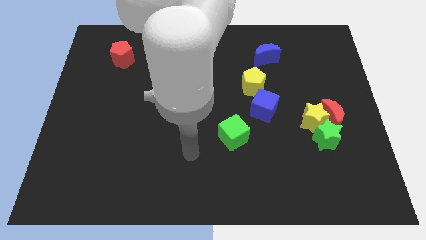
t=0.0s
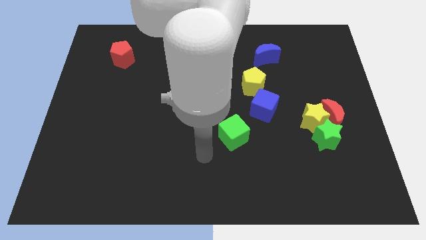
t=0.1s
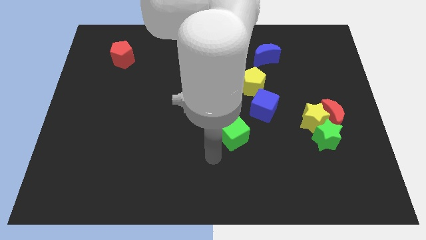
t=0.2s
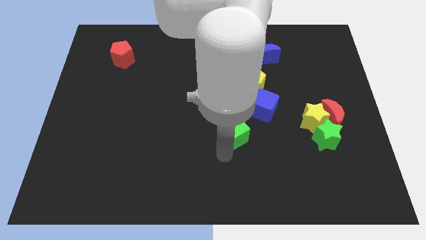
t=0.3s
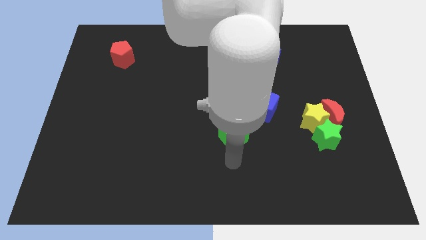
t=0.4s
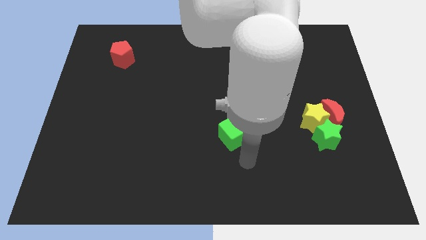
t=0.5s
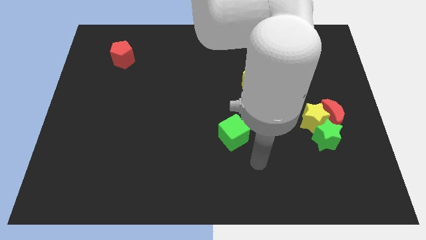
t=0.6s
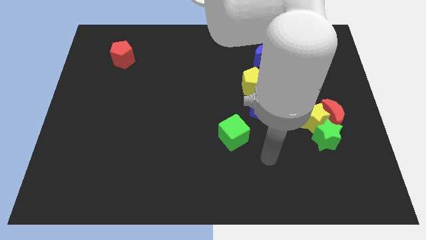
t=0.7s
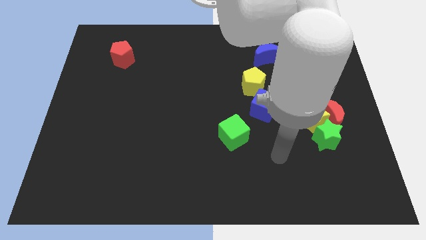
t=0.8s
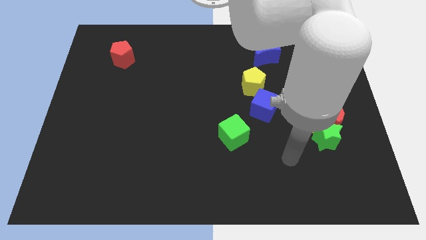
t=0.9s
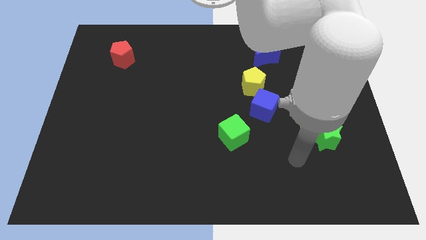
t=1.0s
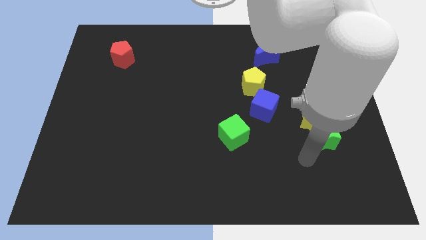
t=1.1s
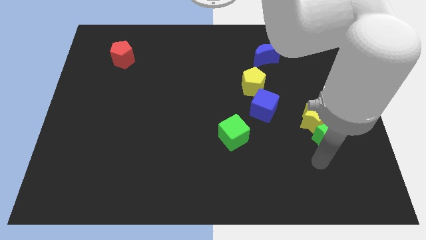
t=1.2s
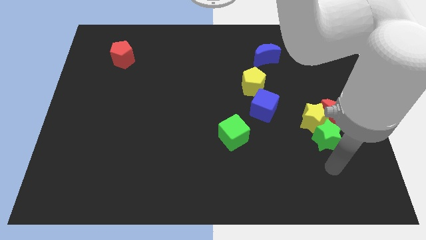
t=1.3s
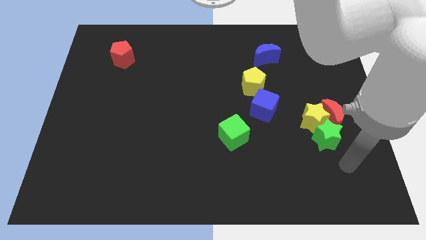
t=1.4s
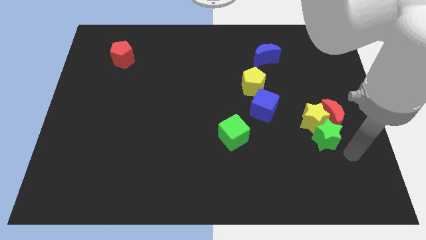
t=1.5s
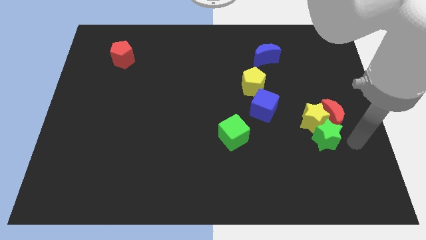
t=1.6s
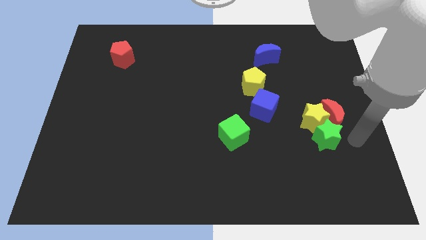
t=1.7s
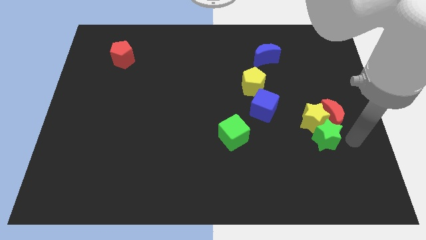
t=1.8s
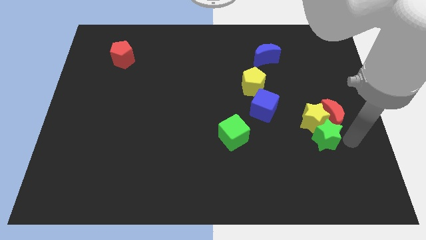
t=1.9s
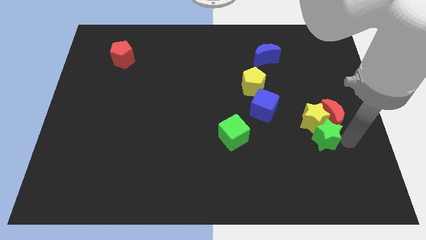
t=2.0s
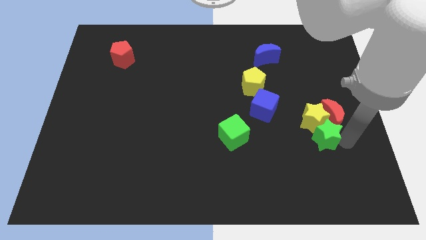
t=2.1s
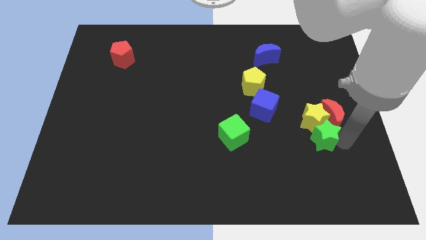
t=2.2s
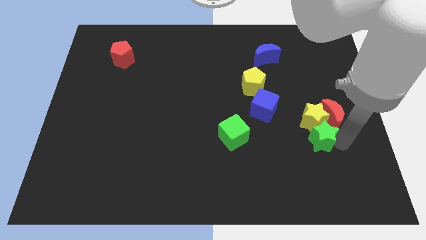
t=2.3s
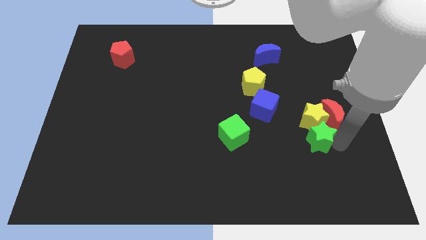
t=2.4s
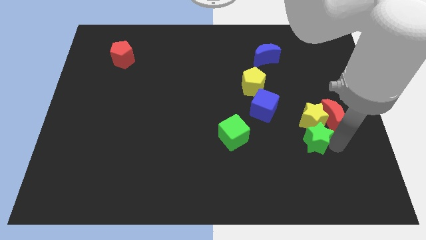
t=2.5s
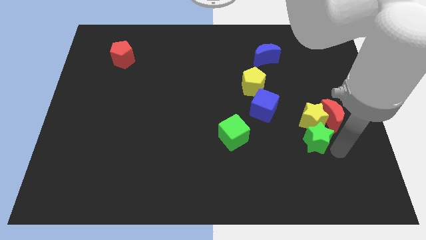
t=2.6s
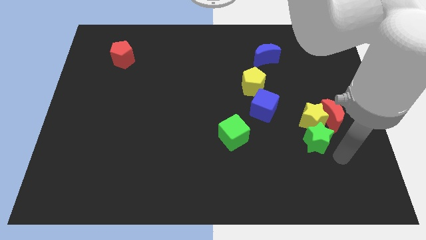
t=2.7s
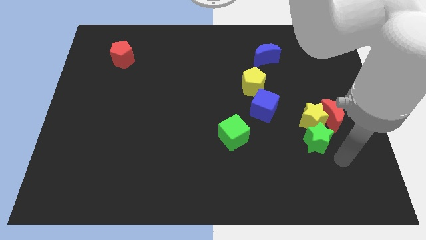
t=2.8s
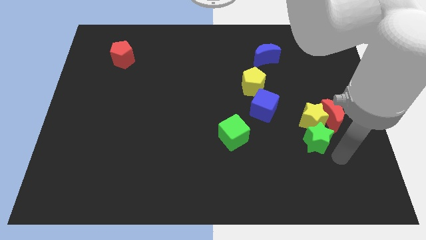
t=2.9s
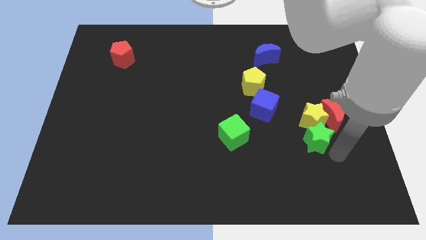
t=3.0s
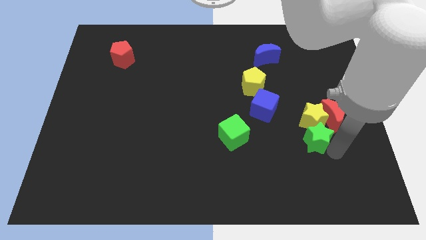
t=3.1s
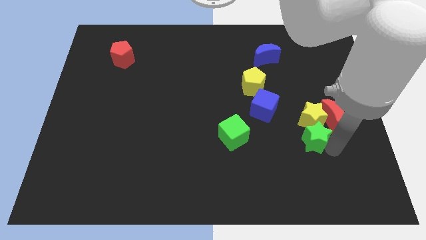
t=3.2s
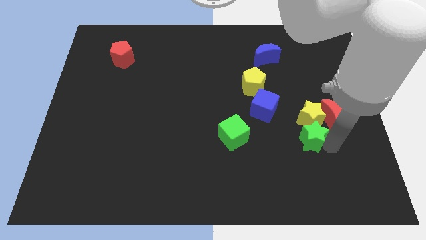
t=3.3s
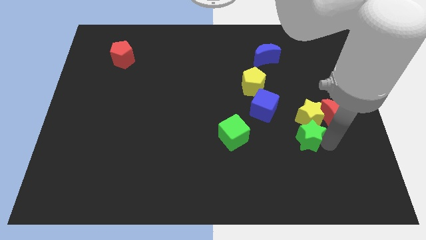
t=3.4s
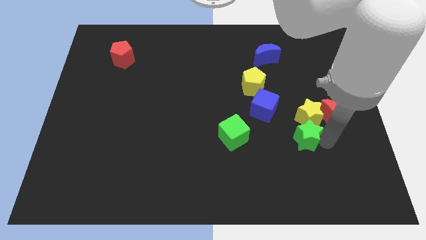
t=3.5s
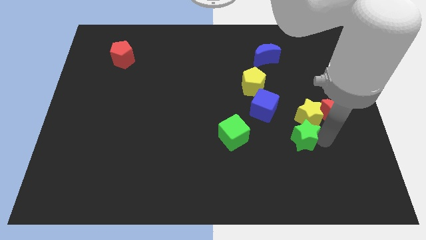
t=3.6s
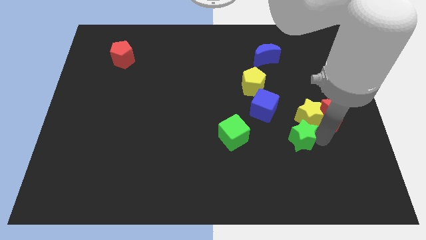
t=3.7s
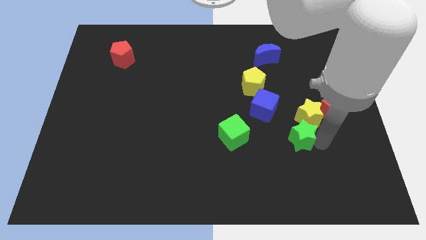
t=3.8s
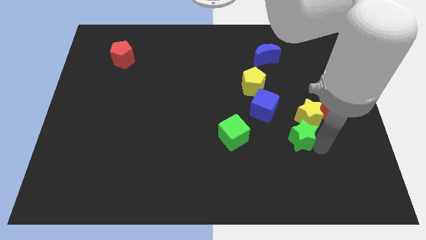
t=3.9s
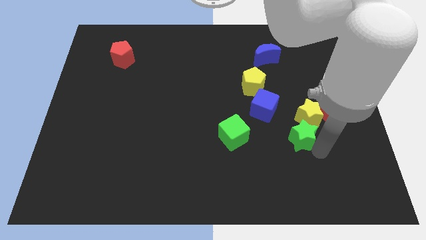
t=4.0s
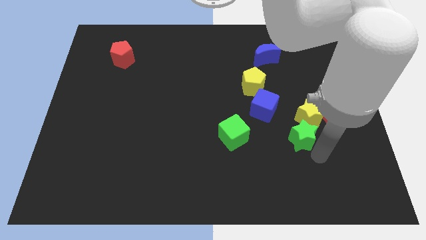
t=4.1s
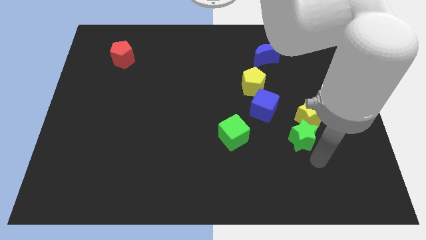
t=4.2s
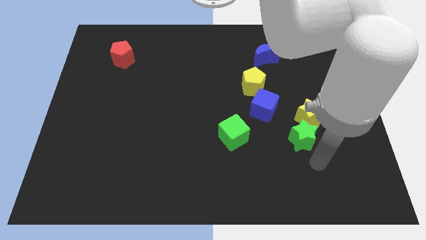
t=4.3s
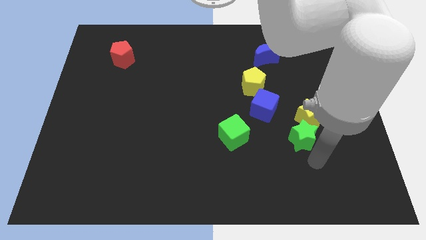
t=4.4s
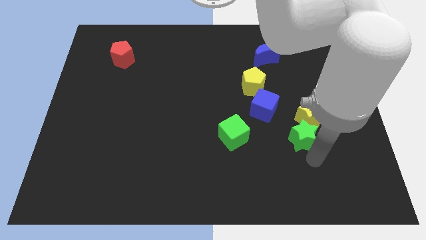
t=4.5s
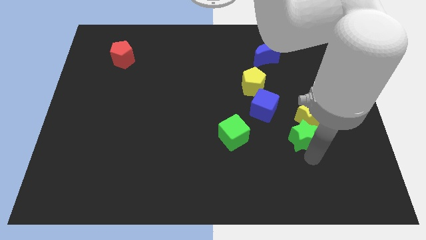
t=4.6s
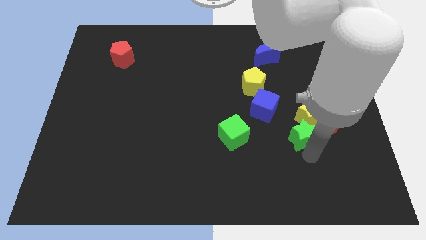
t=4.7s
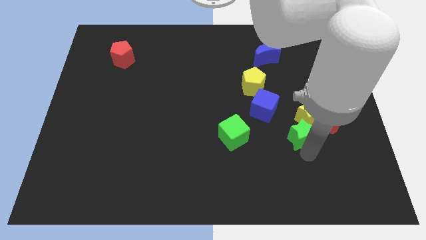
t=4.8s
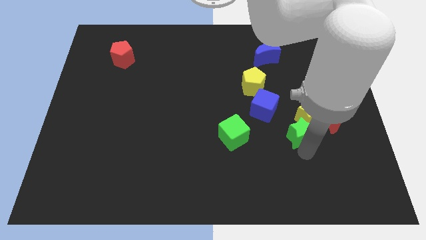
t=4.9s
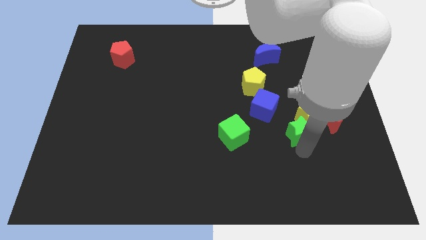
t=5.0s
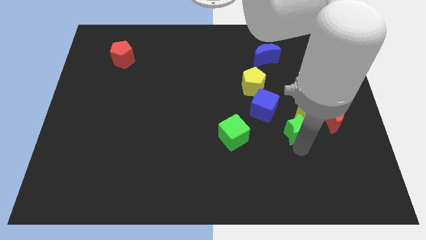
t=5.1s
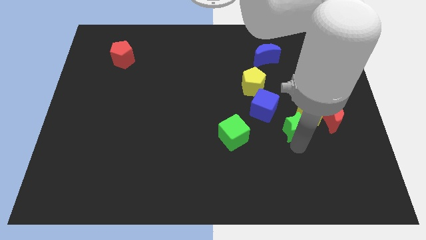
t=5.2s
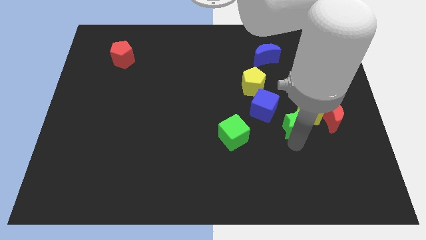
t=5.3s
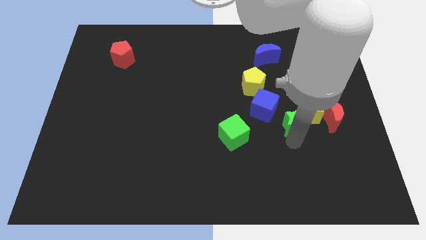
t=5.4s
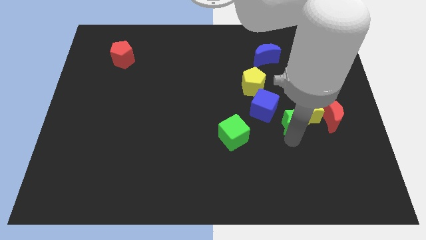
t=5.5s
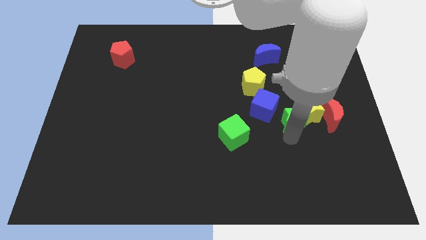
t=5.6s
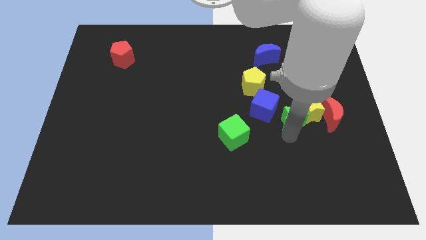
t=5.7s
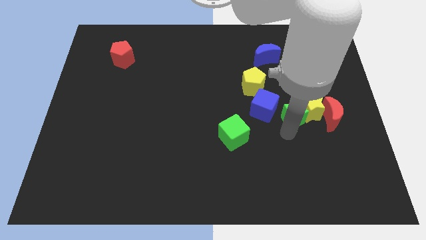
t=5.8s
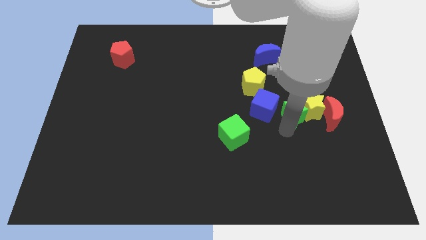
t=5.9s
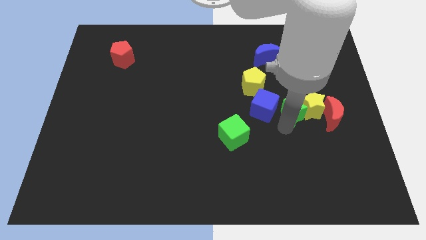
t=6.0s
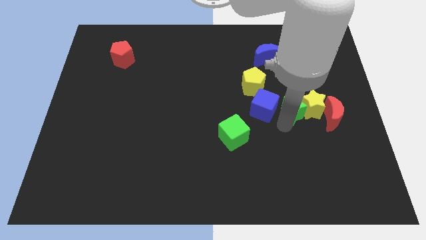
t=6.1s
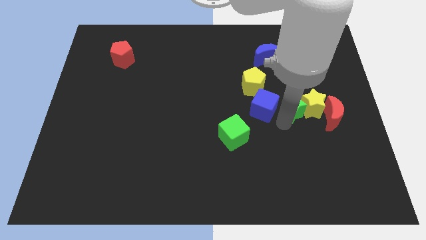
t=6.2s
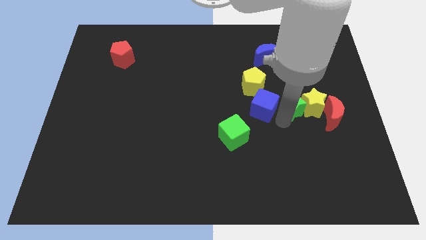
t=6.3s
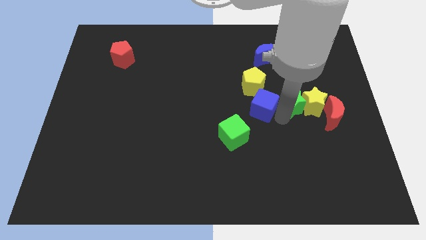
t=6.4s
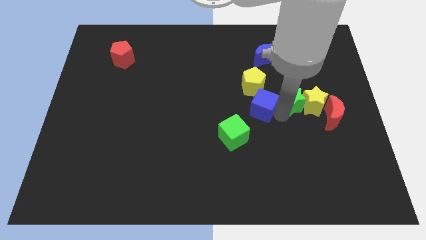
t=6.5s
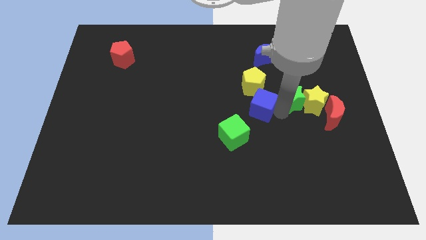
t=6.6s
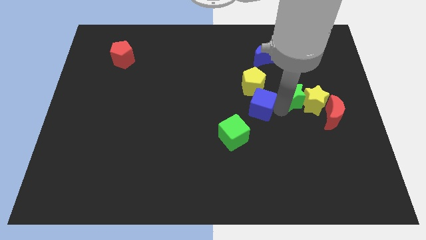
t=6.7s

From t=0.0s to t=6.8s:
slide the green star just right of the yellow pentagon

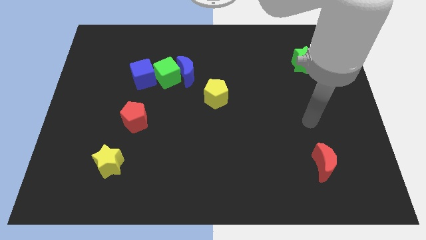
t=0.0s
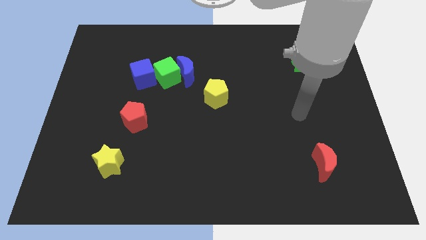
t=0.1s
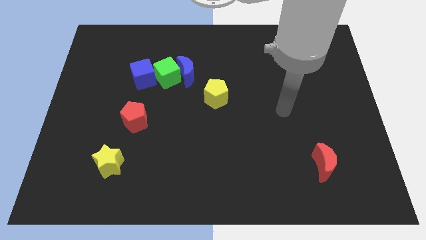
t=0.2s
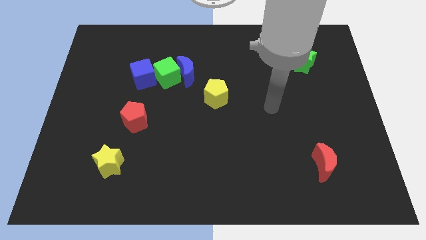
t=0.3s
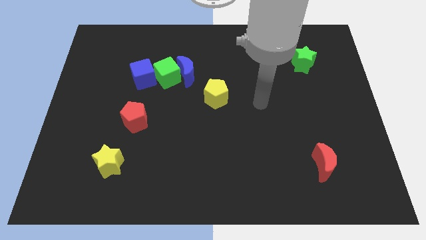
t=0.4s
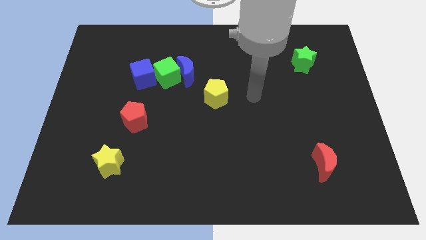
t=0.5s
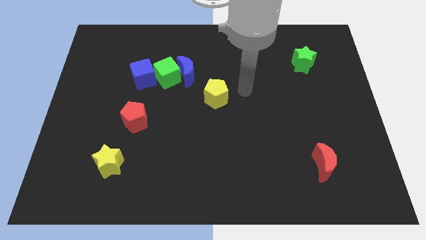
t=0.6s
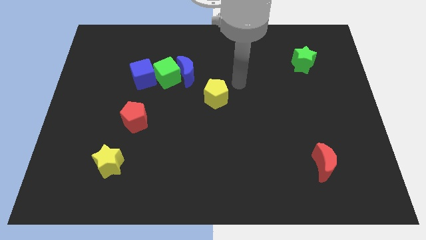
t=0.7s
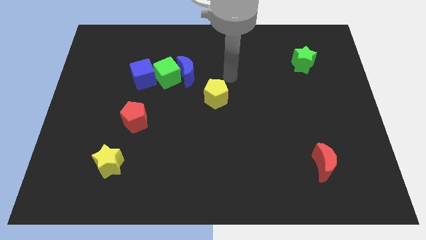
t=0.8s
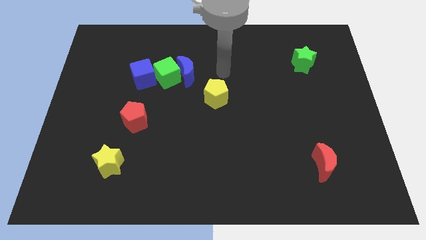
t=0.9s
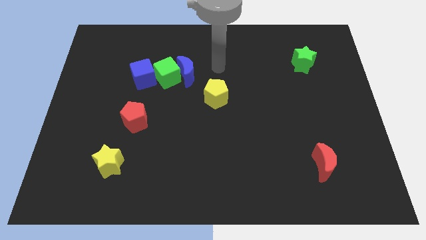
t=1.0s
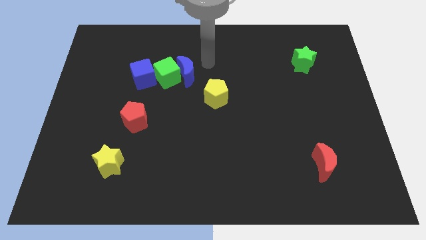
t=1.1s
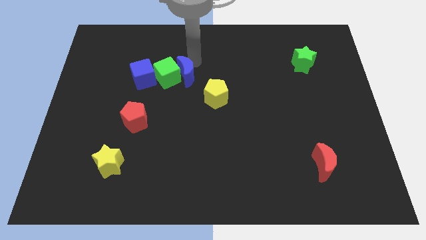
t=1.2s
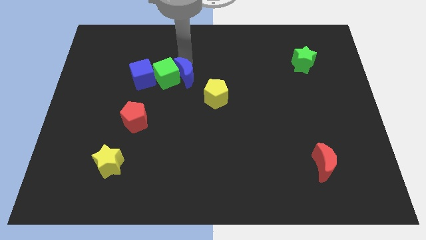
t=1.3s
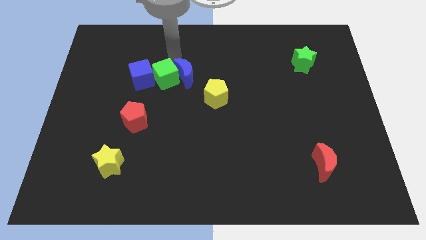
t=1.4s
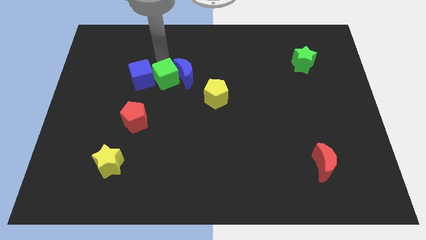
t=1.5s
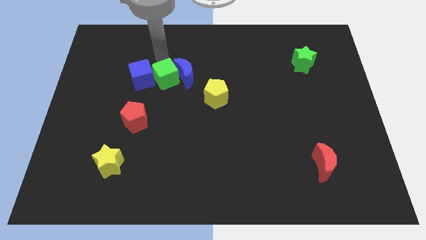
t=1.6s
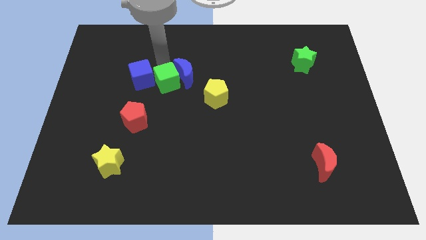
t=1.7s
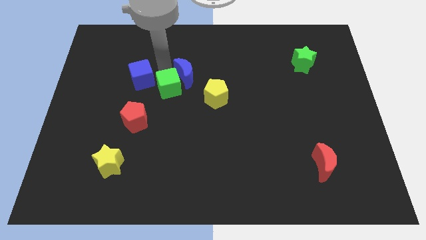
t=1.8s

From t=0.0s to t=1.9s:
slide the green cube left of the yellow pentagon
